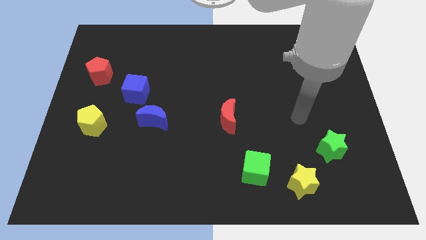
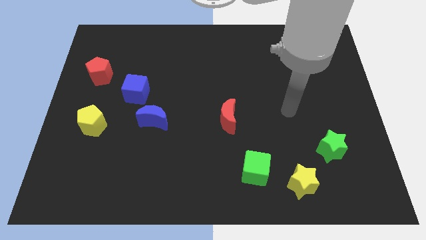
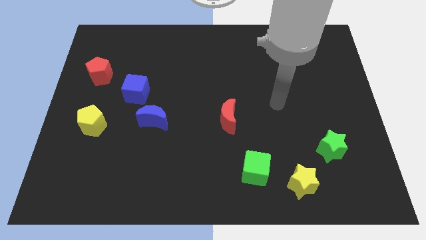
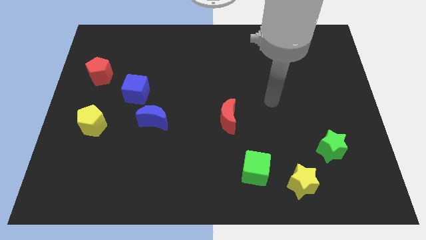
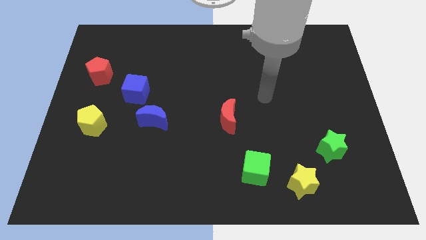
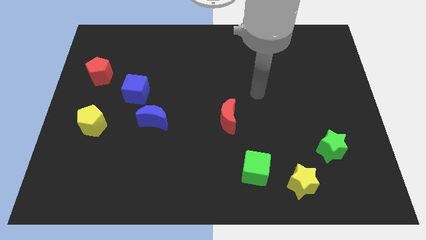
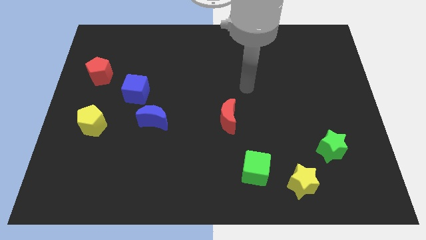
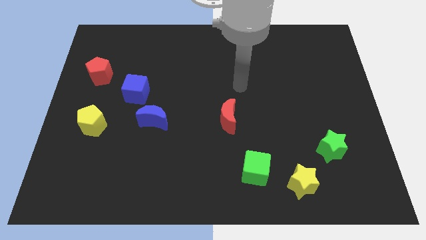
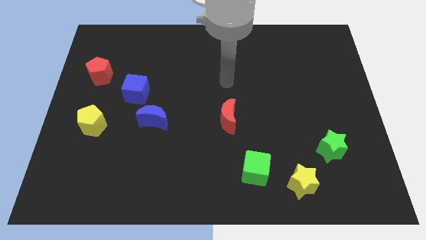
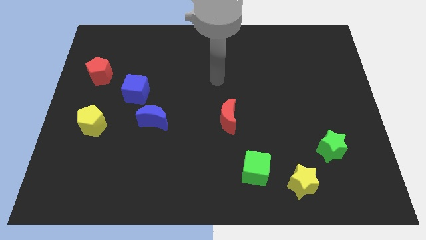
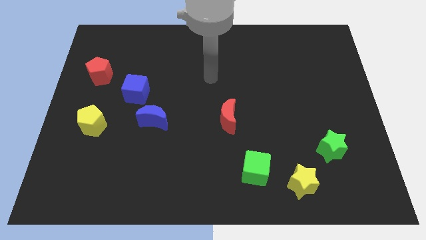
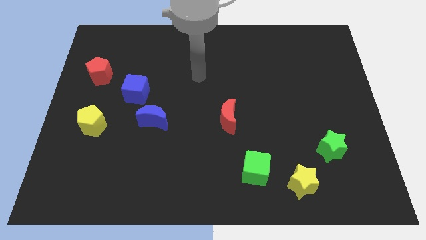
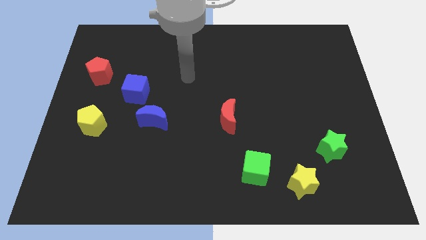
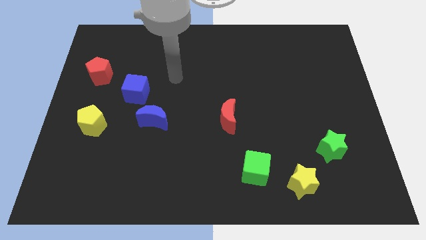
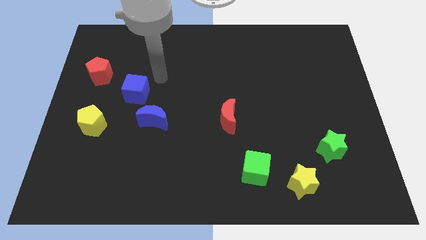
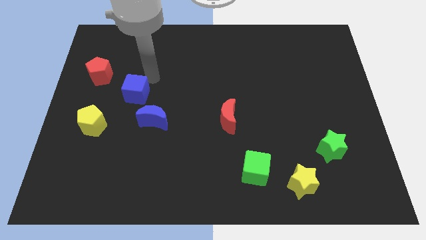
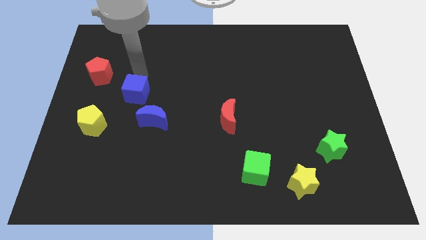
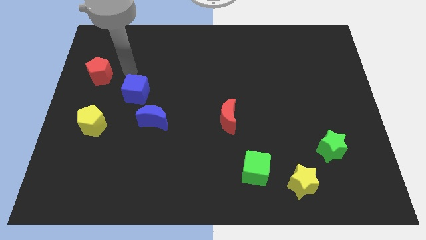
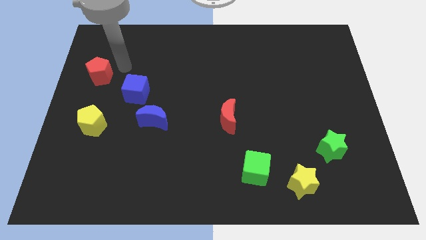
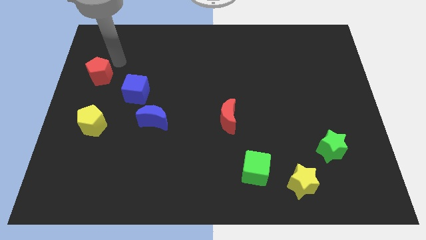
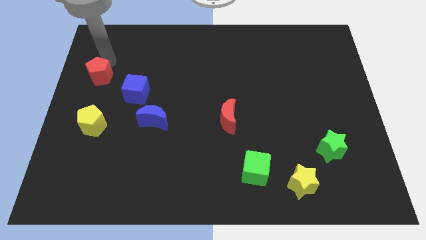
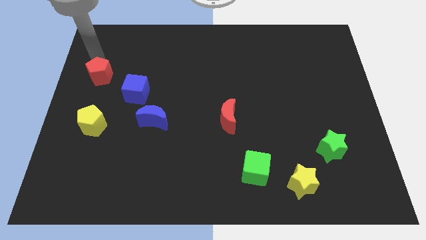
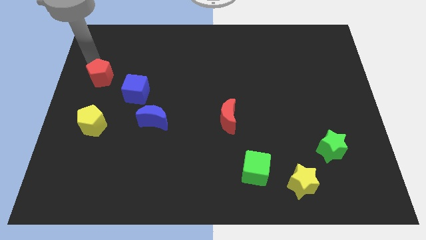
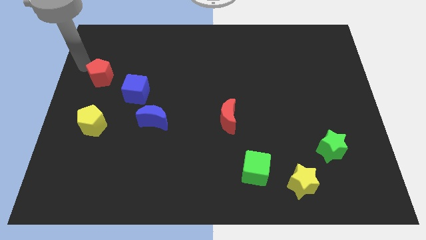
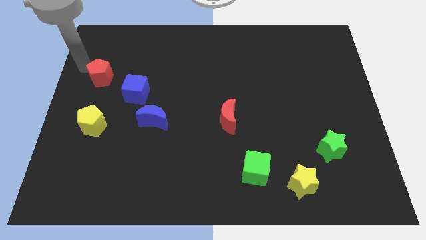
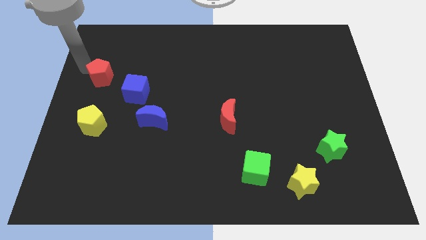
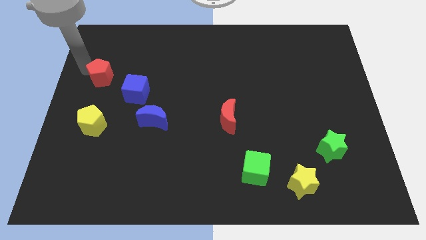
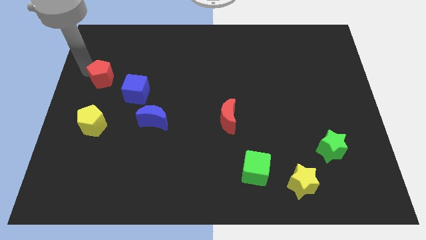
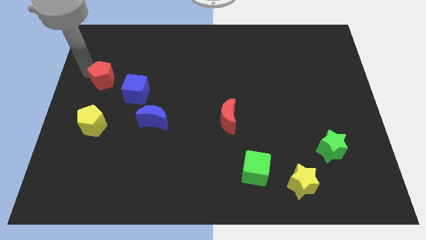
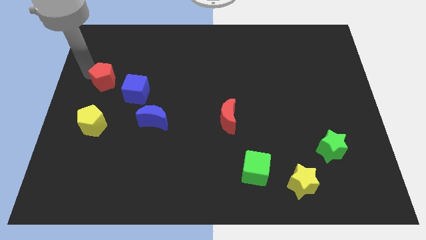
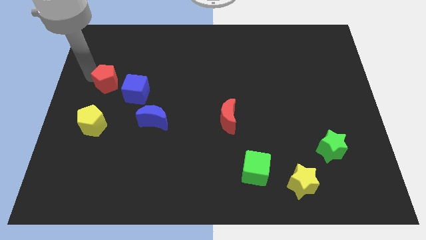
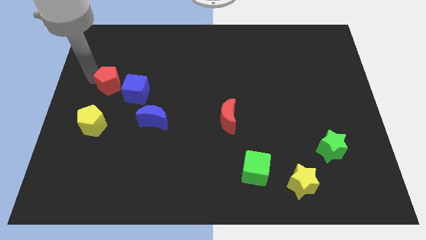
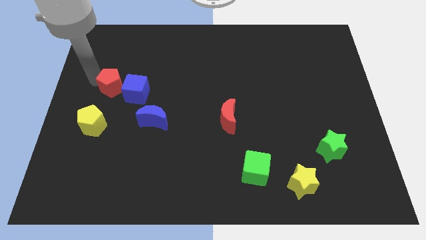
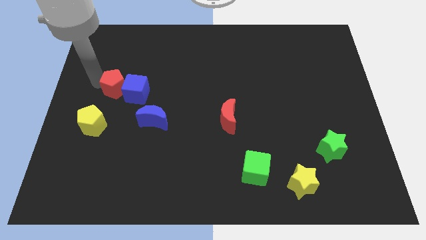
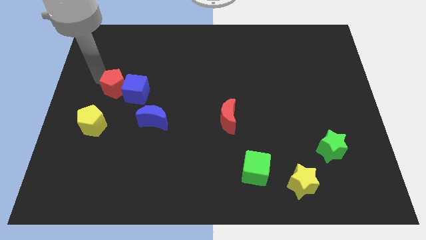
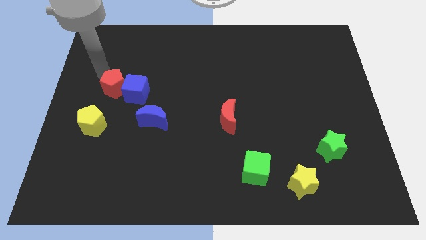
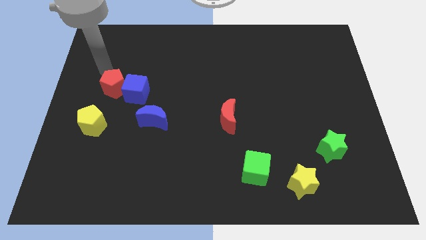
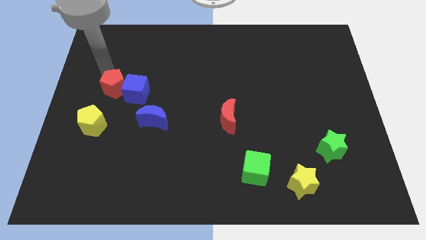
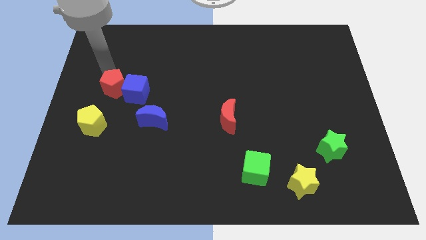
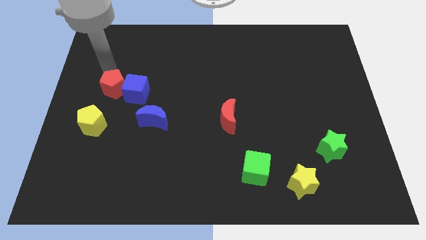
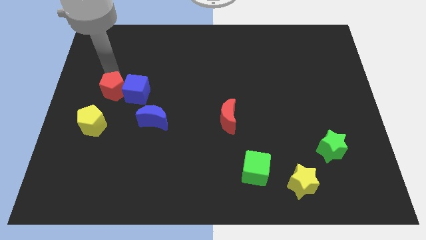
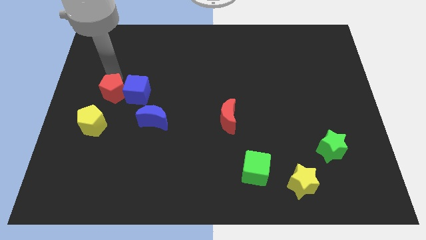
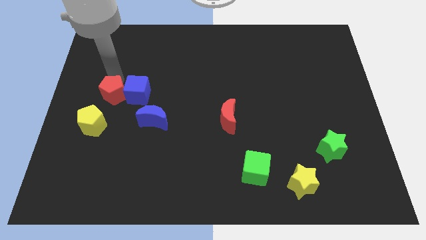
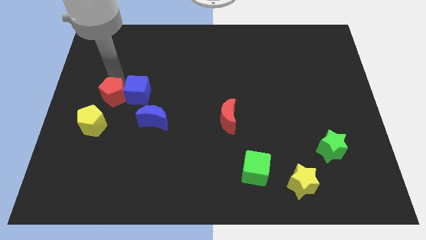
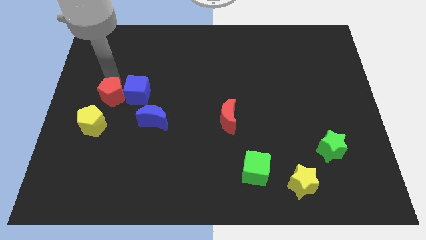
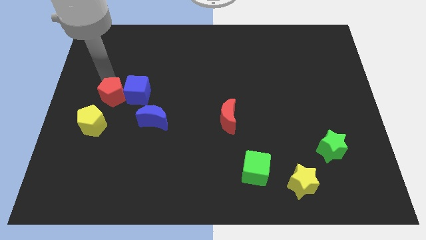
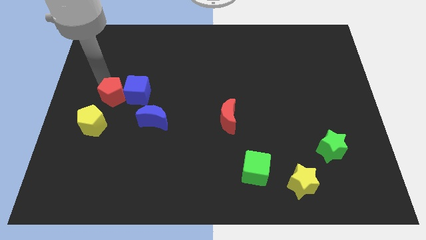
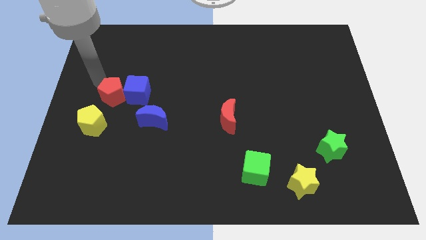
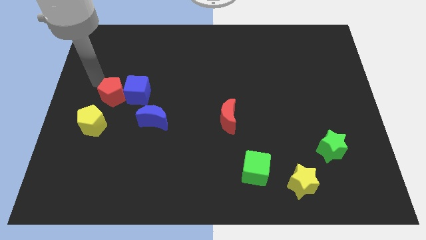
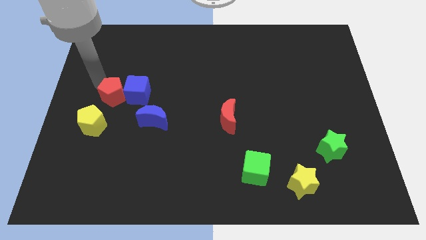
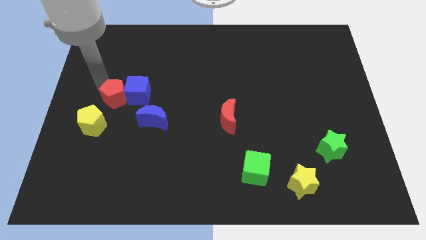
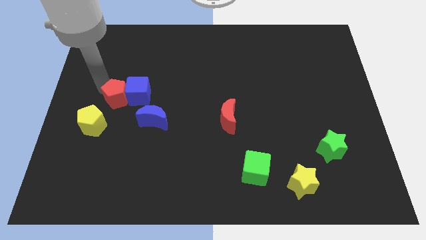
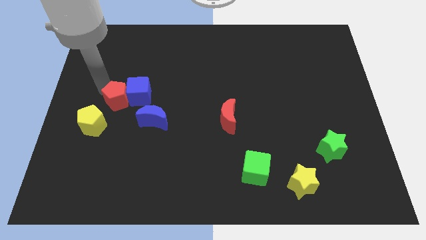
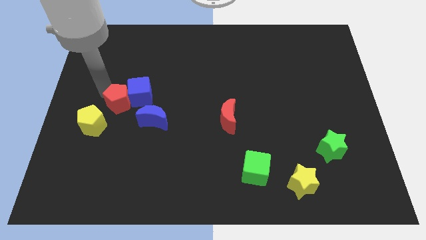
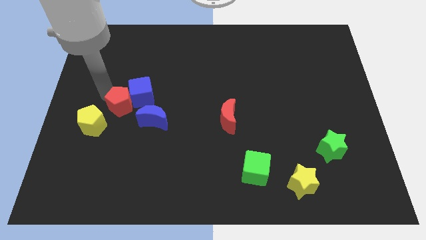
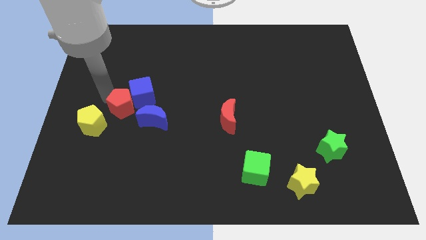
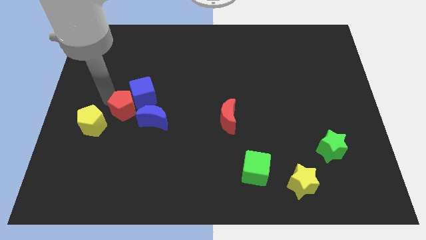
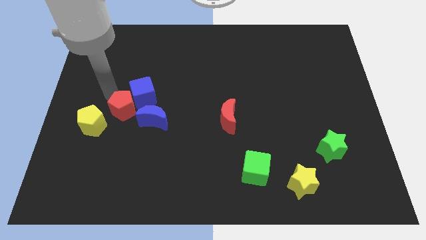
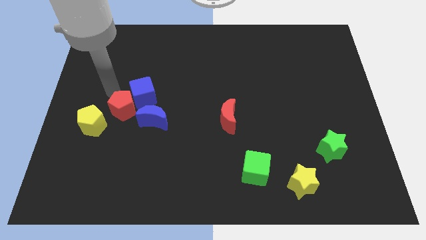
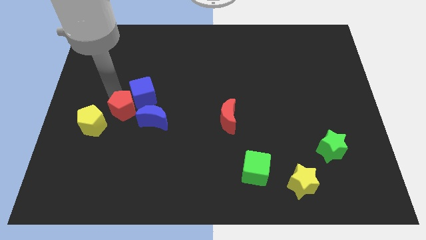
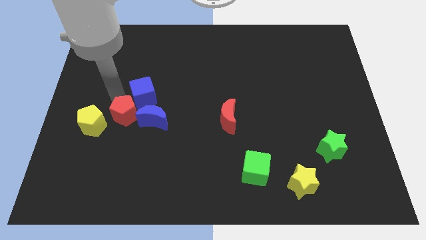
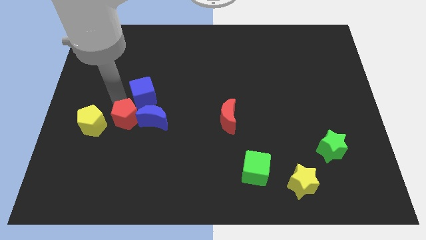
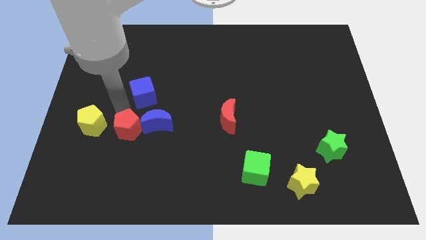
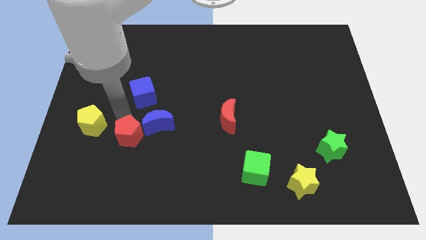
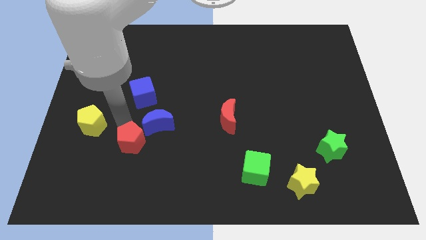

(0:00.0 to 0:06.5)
push the red pentagon downwards and then to the right

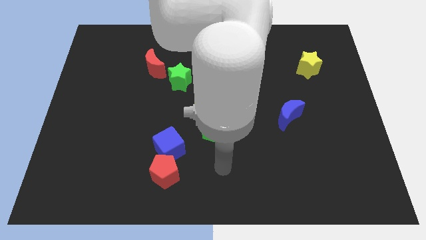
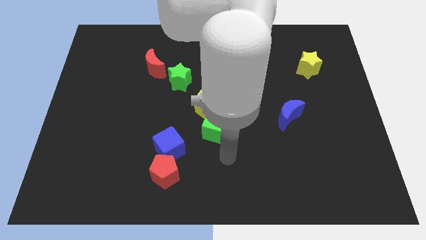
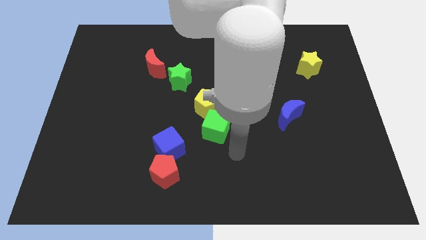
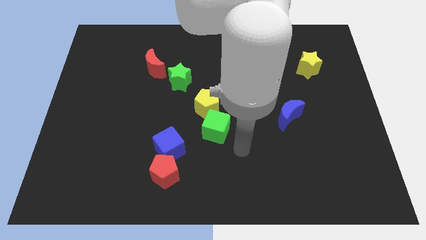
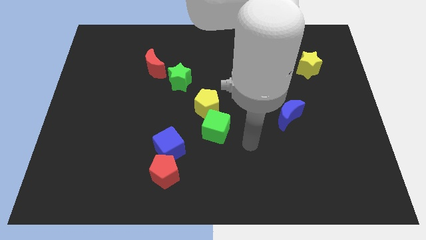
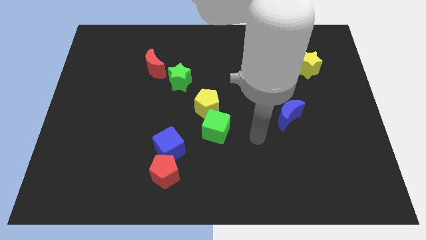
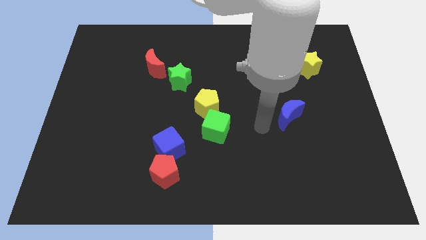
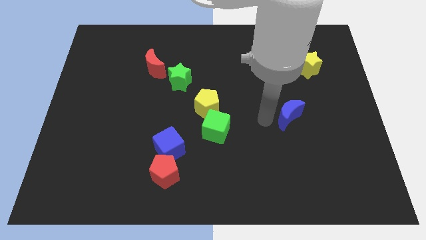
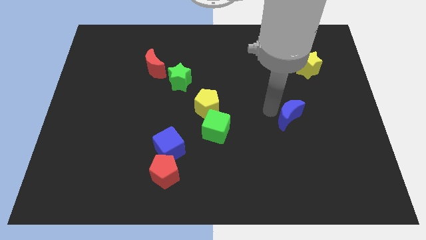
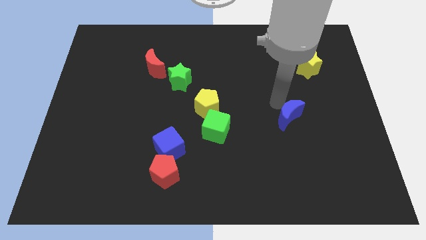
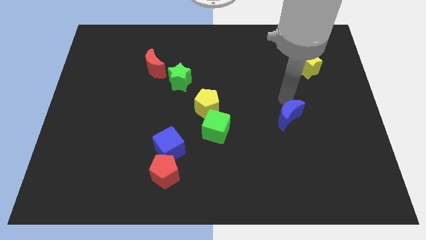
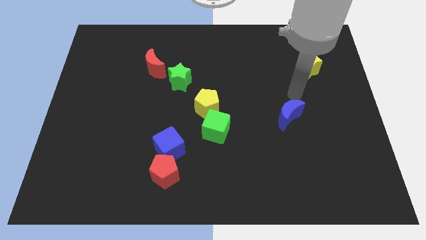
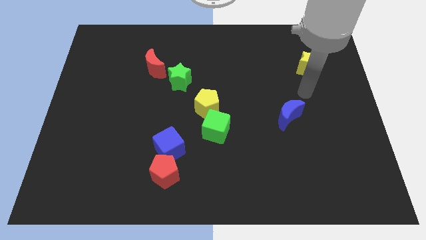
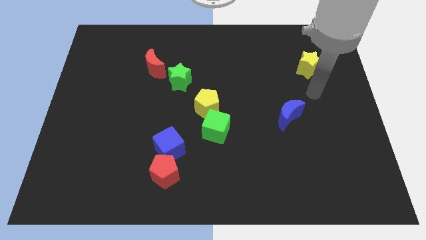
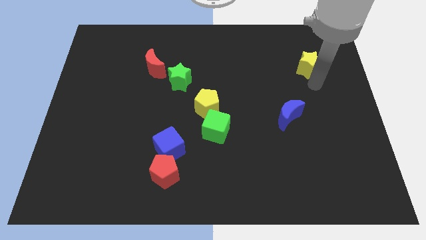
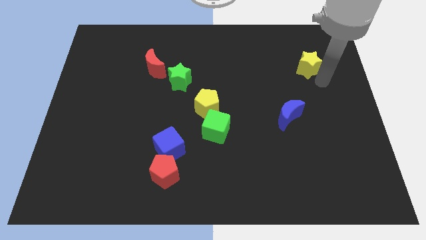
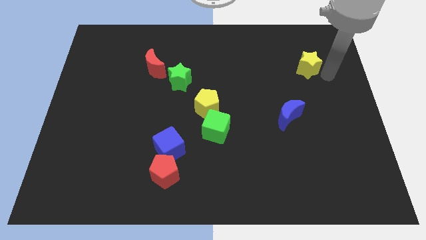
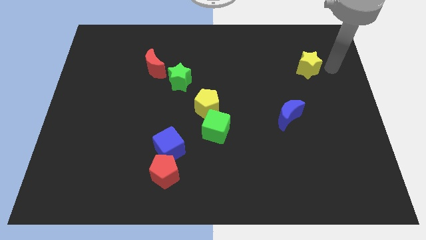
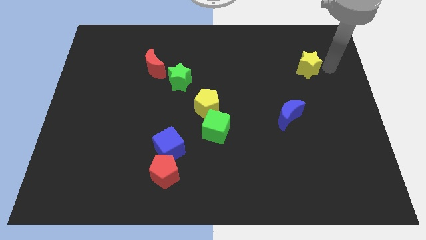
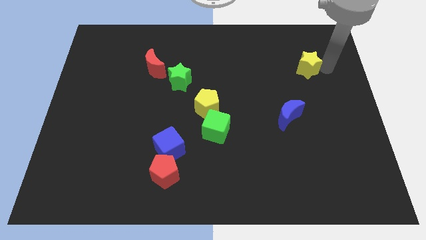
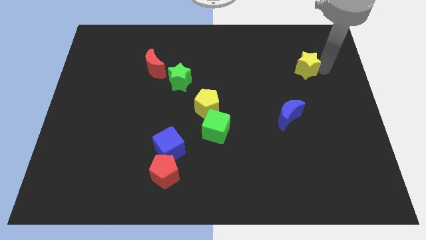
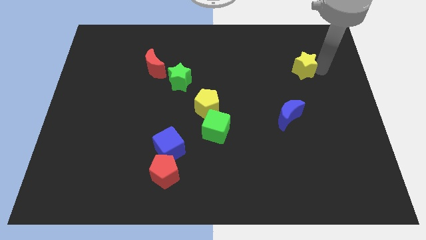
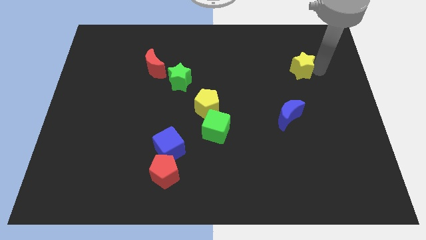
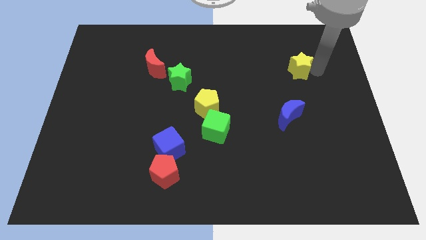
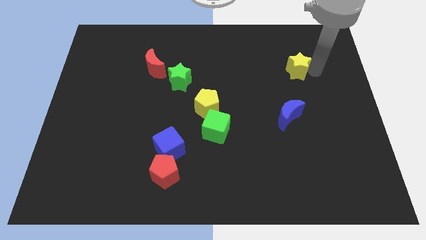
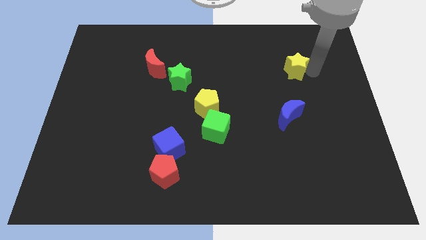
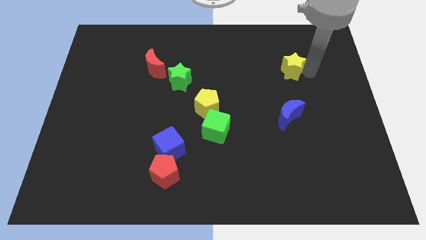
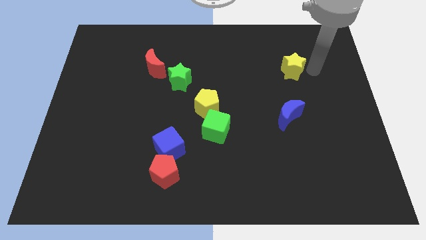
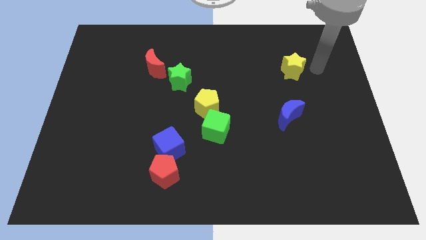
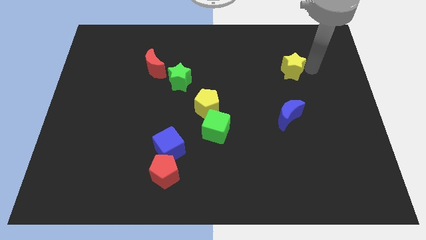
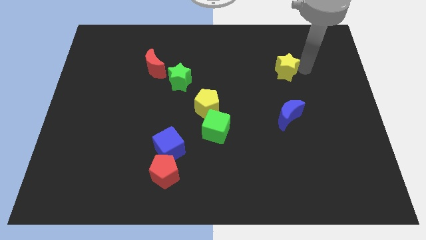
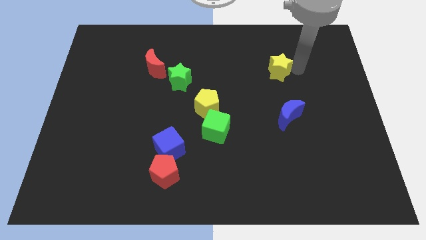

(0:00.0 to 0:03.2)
slightly move the yellow star to the left
